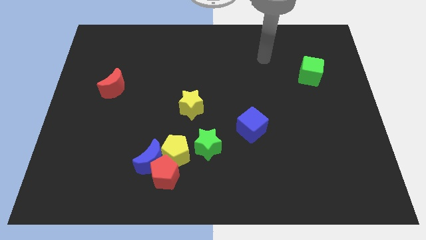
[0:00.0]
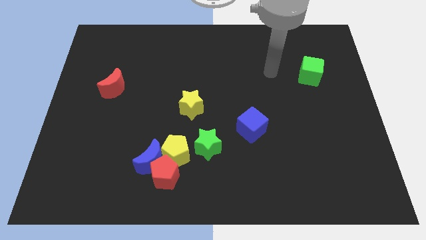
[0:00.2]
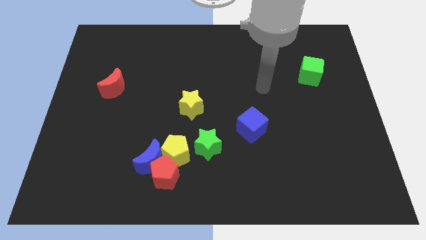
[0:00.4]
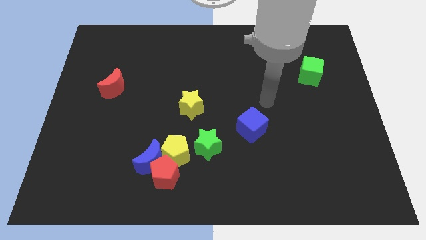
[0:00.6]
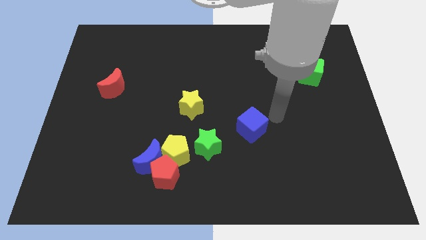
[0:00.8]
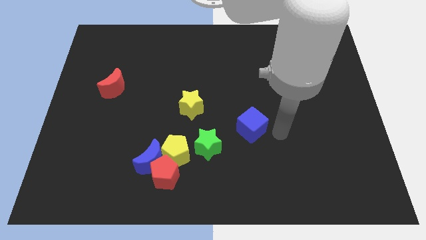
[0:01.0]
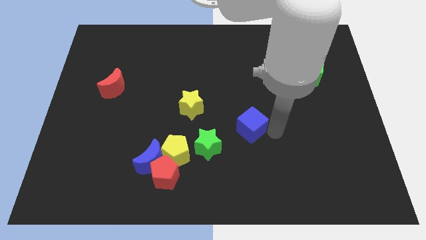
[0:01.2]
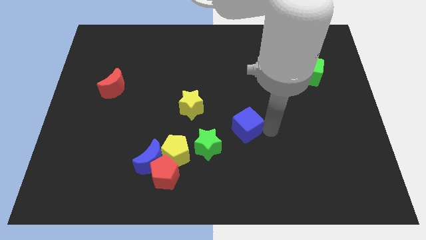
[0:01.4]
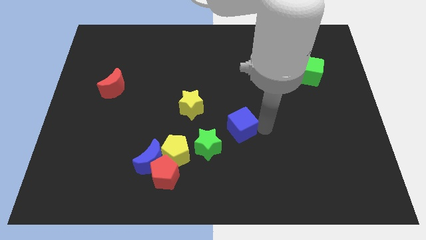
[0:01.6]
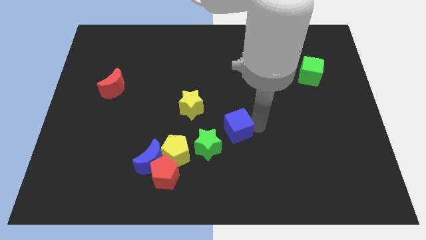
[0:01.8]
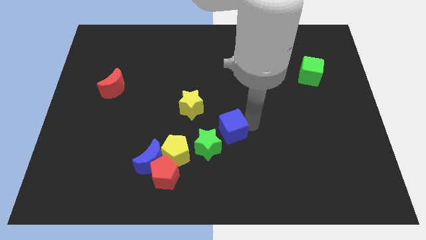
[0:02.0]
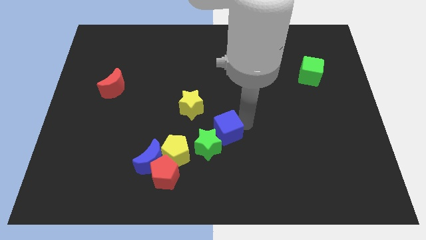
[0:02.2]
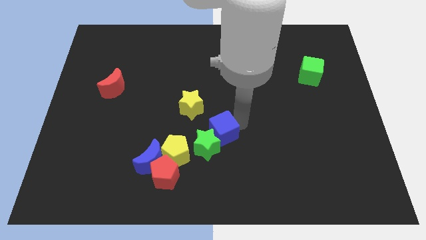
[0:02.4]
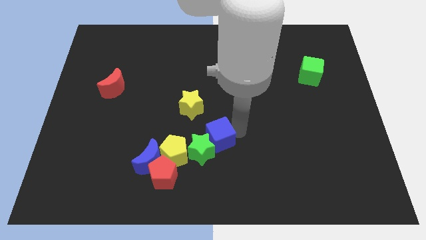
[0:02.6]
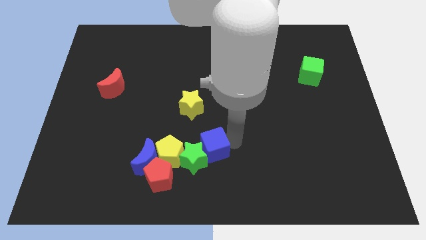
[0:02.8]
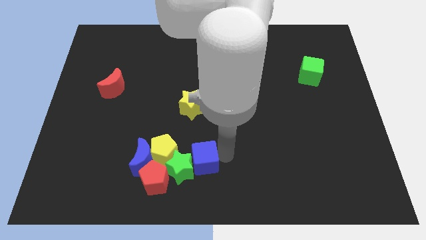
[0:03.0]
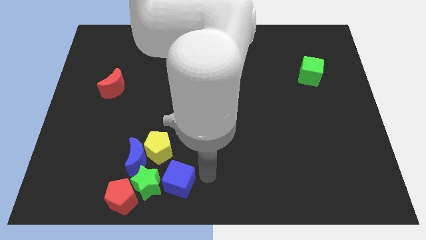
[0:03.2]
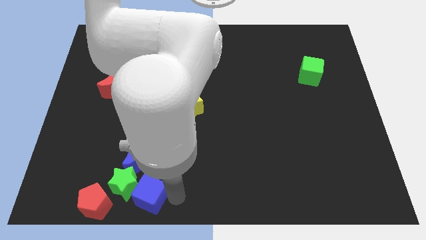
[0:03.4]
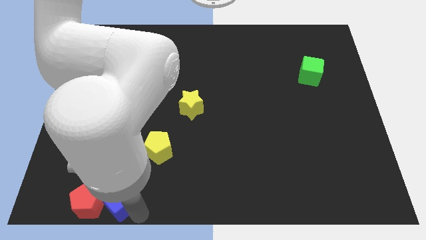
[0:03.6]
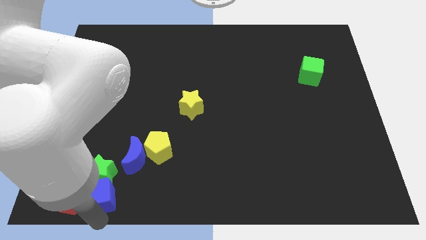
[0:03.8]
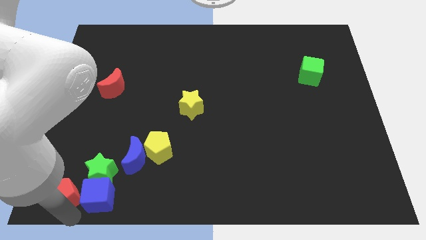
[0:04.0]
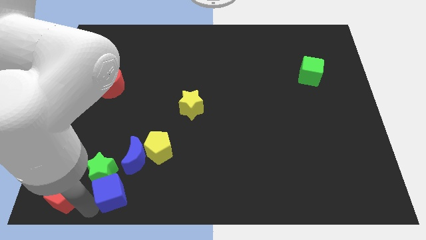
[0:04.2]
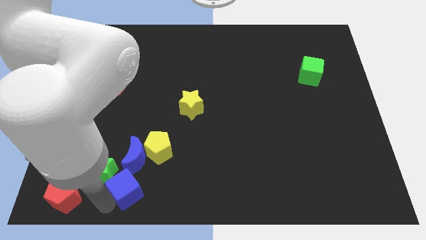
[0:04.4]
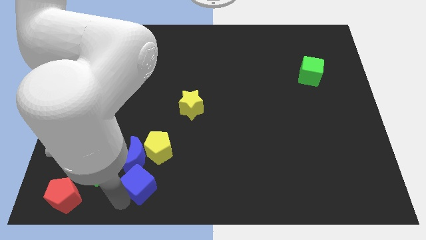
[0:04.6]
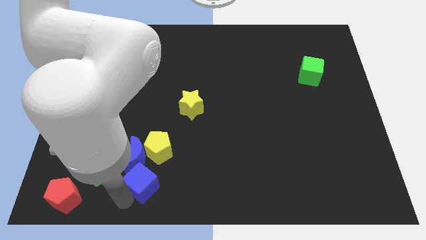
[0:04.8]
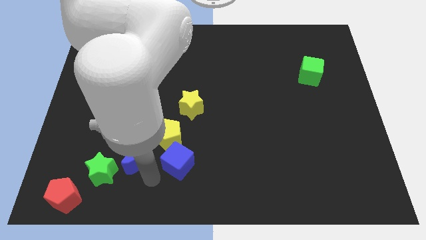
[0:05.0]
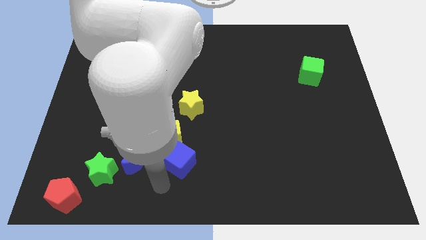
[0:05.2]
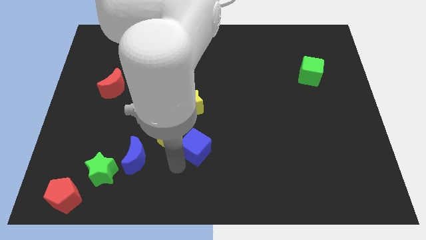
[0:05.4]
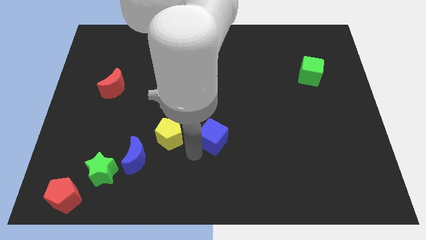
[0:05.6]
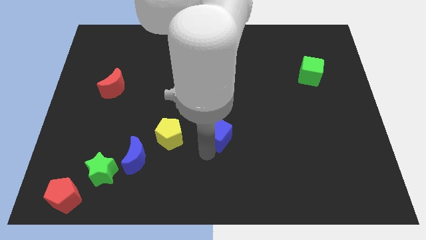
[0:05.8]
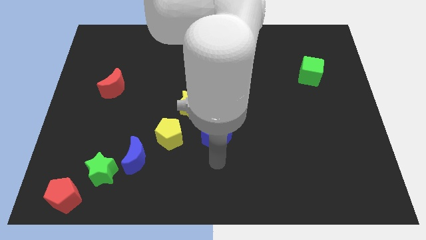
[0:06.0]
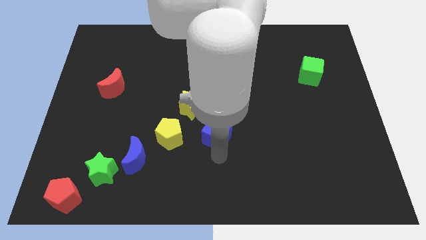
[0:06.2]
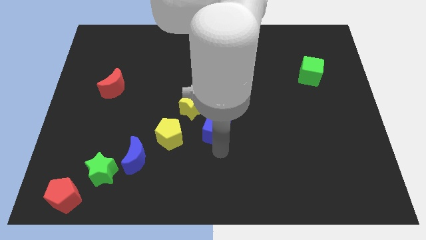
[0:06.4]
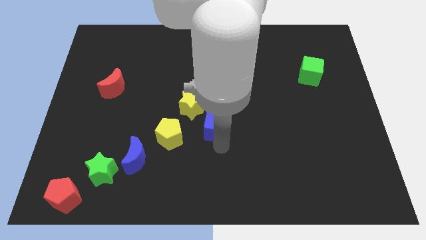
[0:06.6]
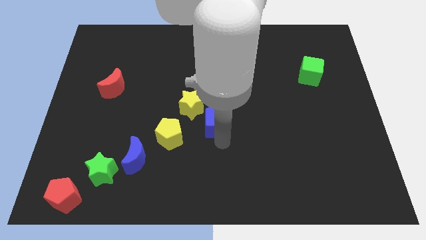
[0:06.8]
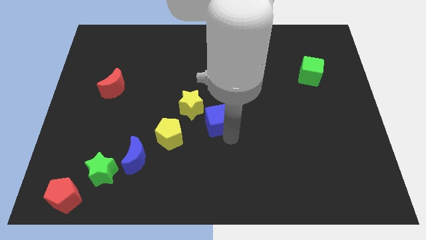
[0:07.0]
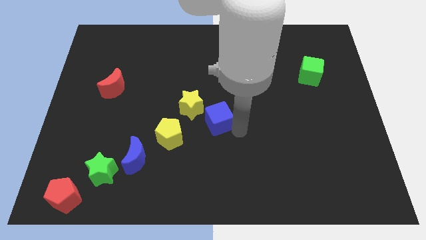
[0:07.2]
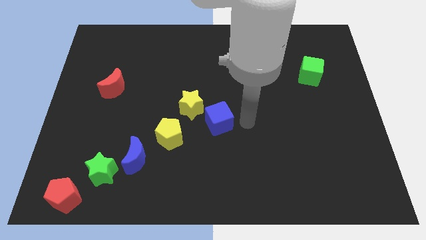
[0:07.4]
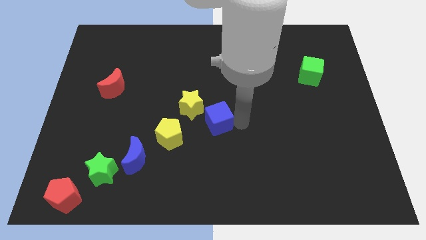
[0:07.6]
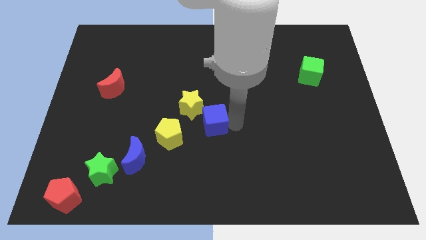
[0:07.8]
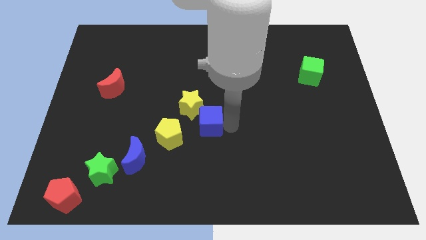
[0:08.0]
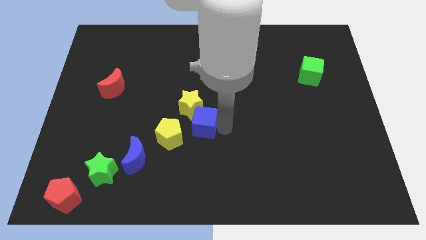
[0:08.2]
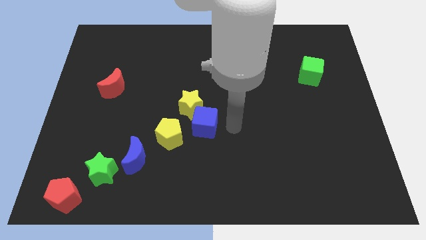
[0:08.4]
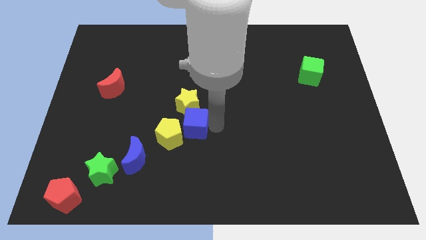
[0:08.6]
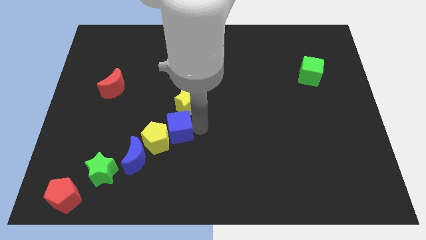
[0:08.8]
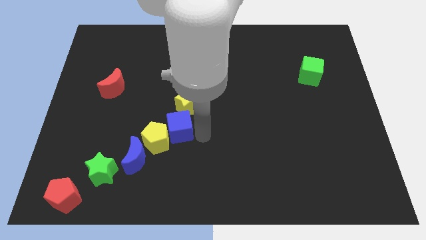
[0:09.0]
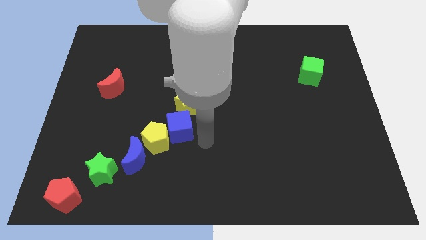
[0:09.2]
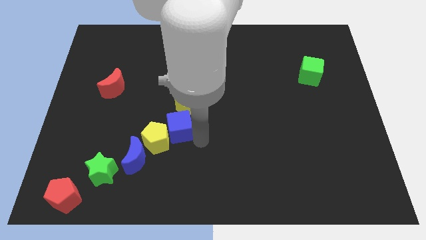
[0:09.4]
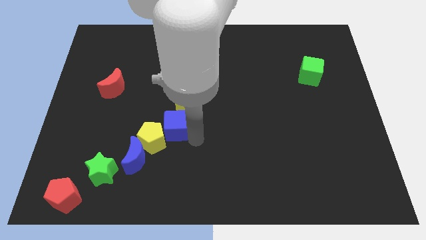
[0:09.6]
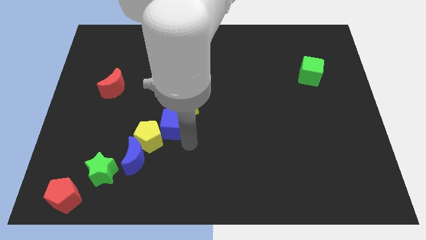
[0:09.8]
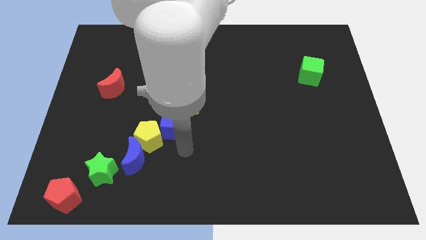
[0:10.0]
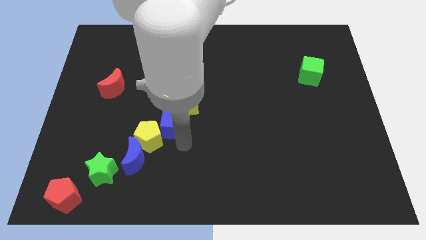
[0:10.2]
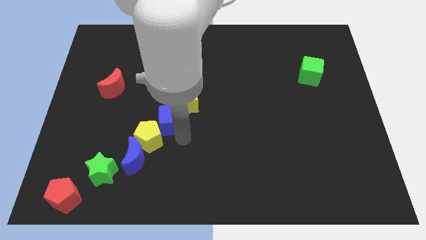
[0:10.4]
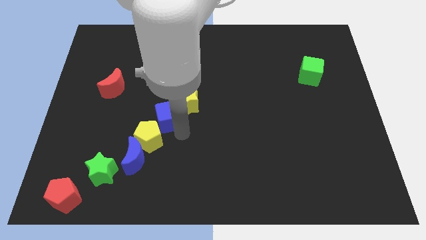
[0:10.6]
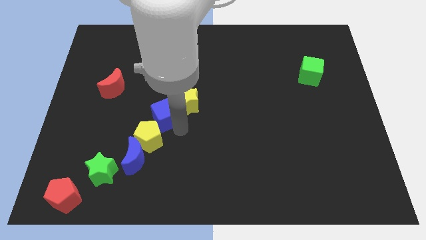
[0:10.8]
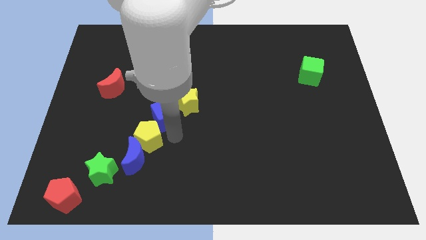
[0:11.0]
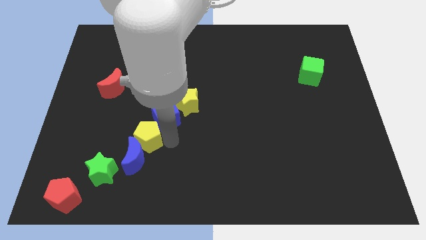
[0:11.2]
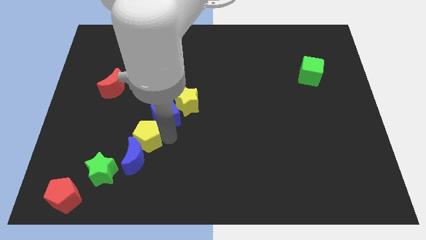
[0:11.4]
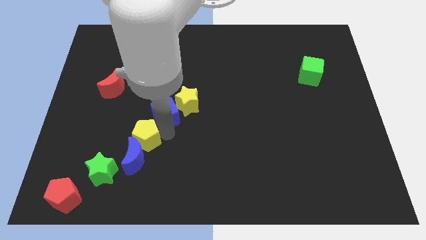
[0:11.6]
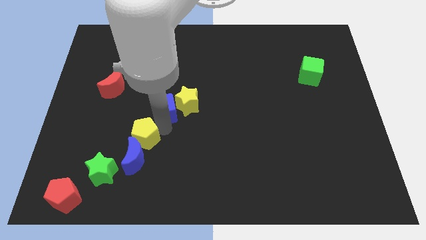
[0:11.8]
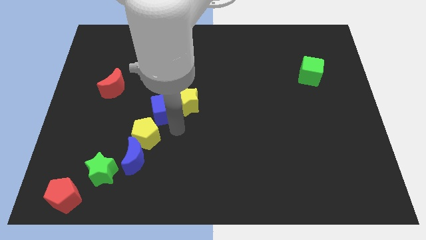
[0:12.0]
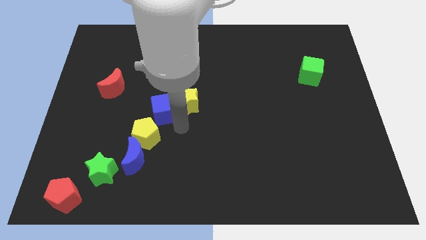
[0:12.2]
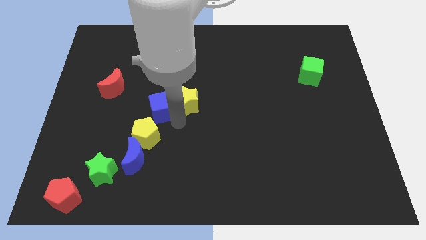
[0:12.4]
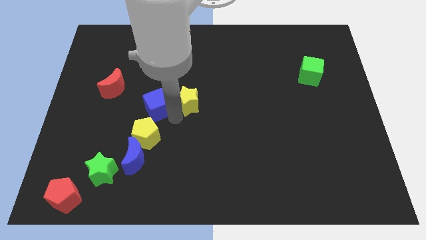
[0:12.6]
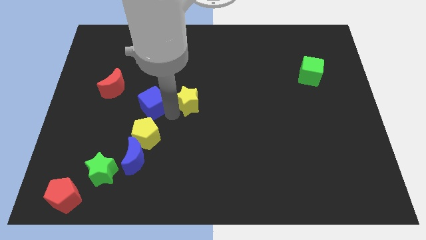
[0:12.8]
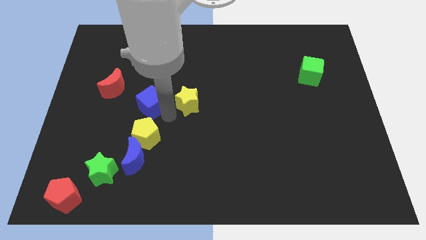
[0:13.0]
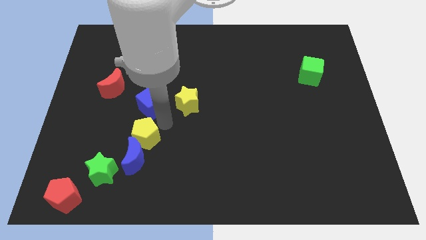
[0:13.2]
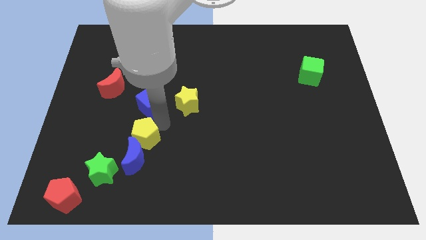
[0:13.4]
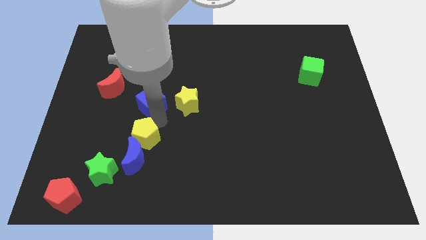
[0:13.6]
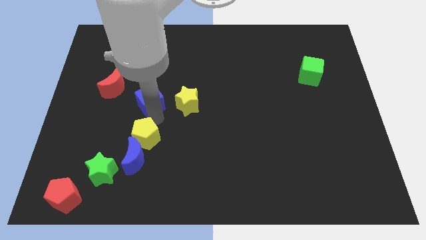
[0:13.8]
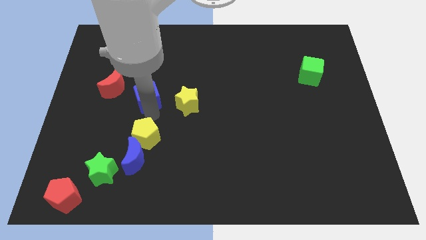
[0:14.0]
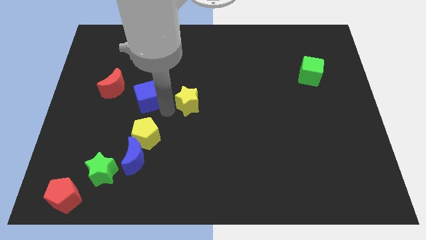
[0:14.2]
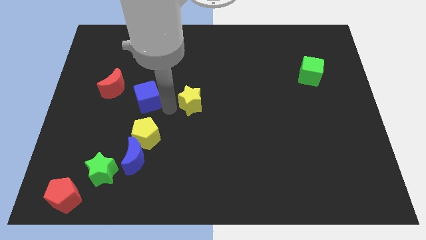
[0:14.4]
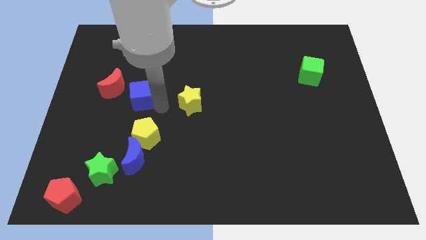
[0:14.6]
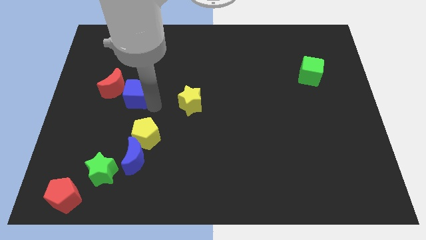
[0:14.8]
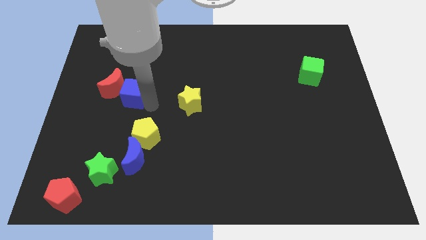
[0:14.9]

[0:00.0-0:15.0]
push the blue cube close to the red moon
